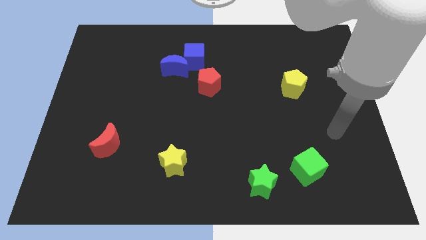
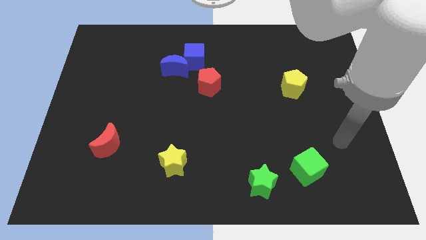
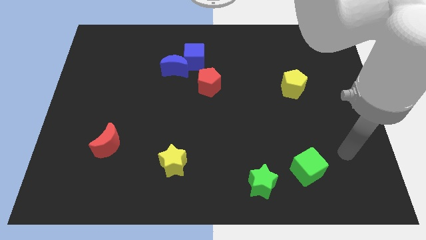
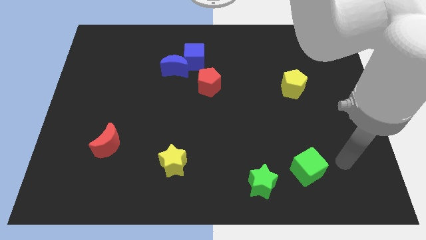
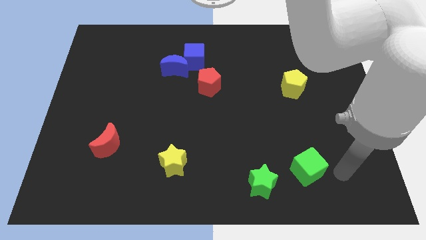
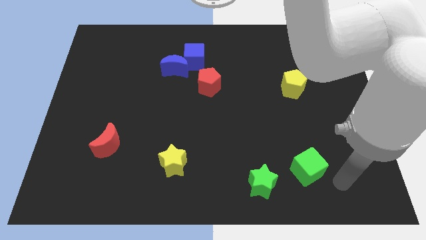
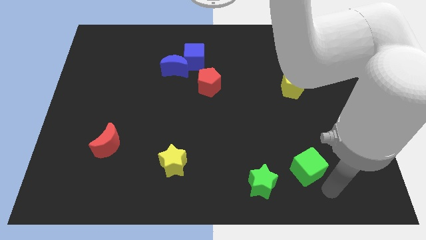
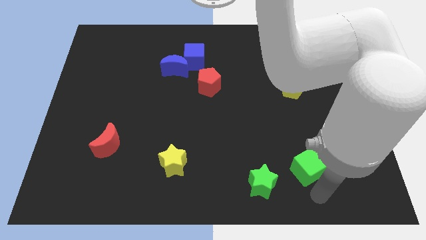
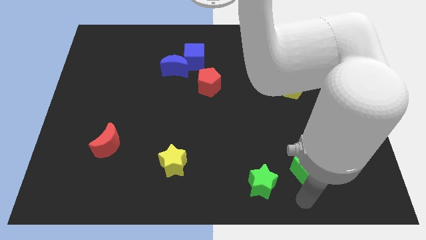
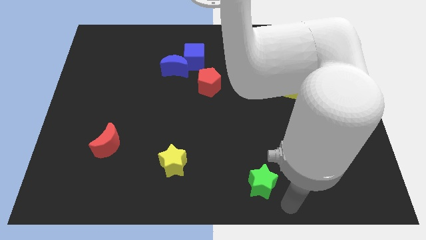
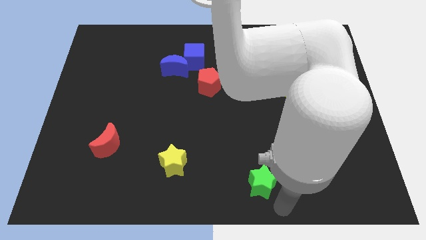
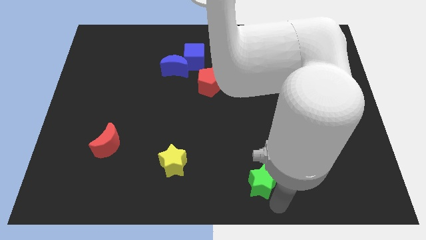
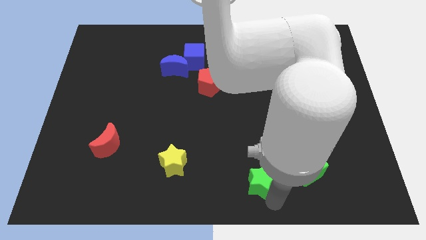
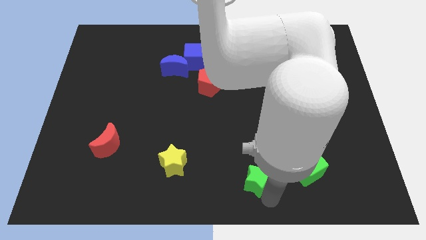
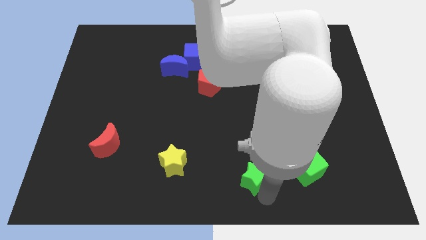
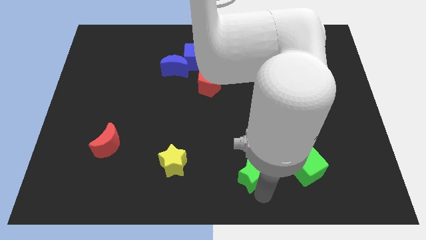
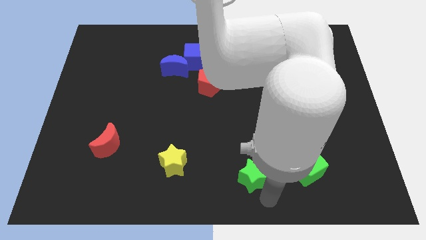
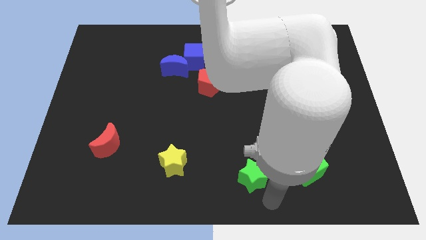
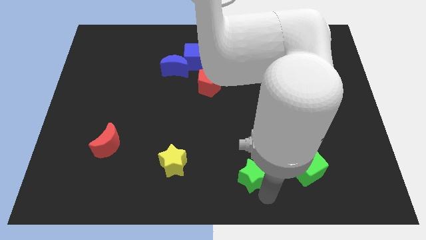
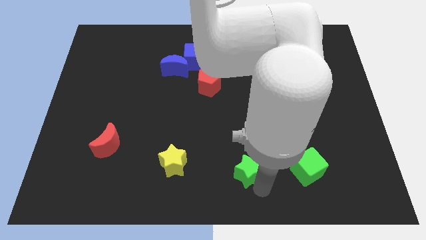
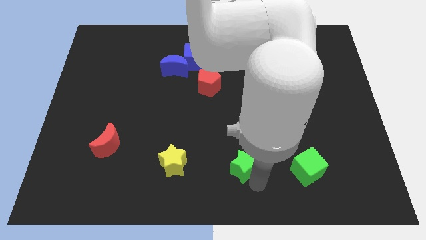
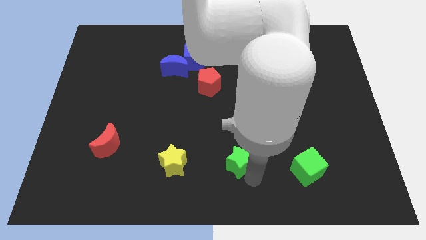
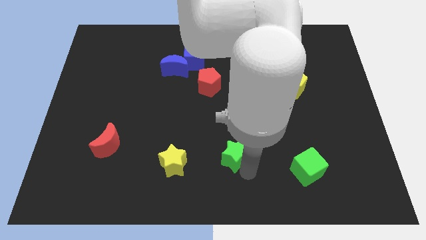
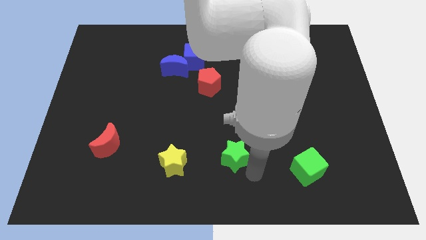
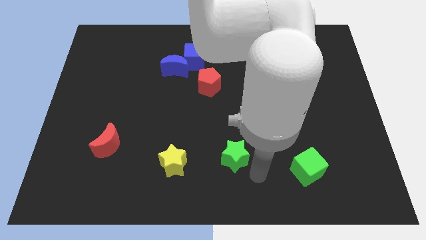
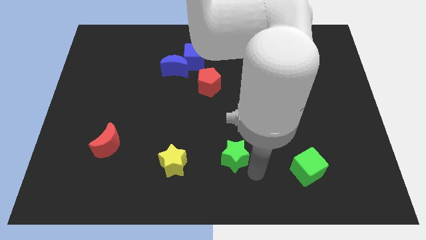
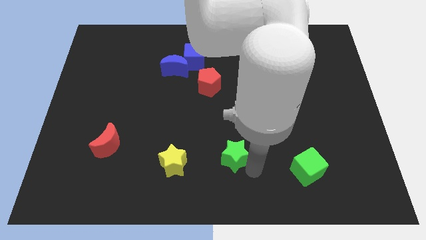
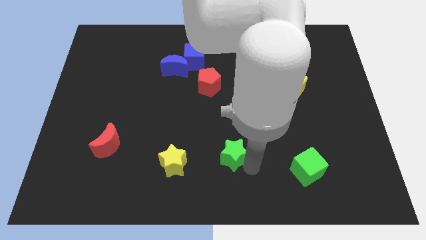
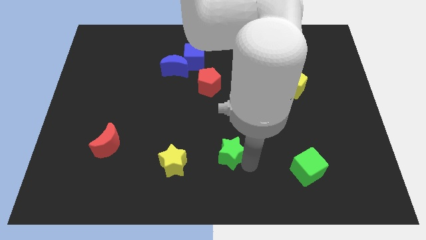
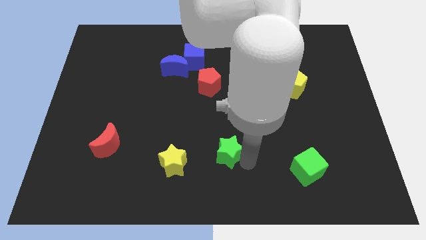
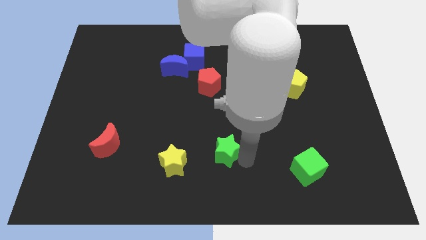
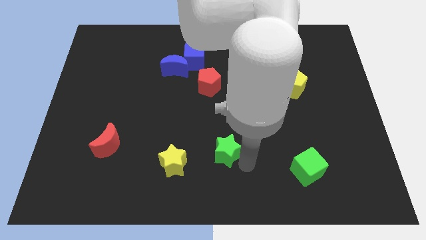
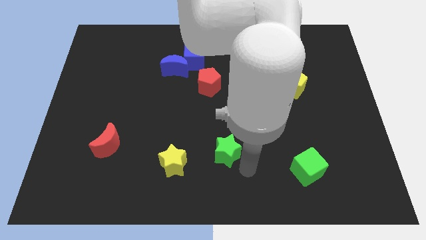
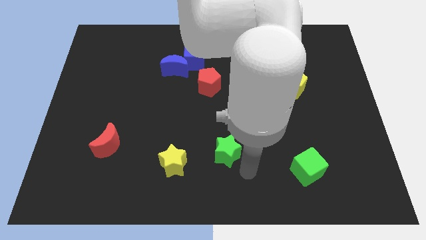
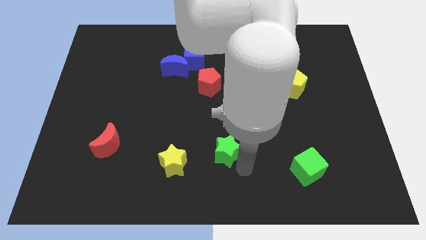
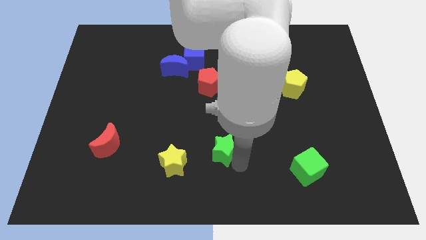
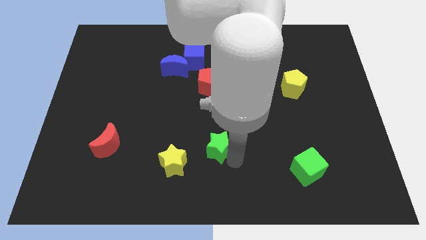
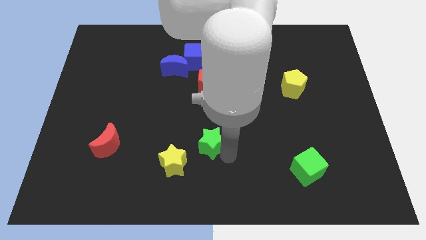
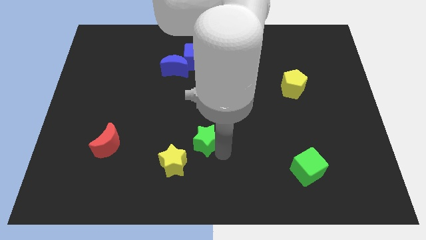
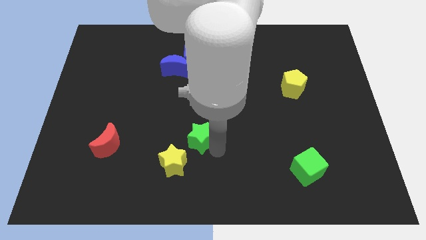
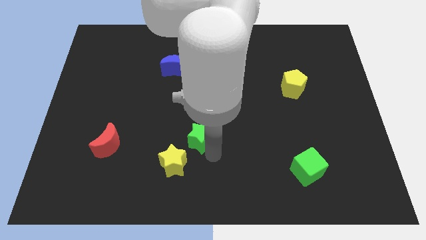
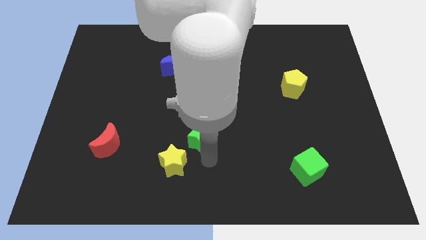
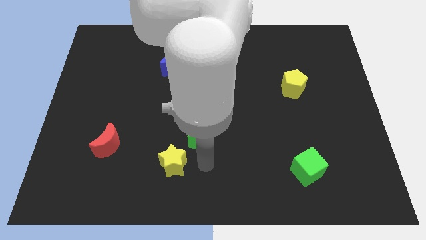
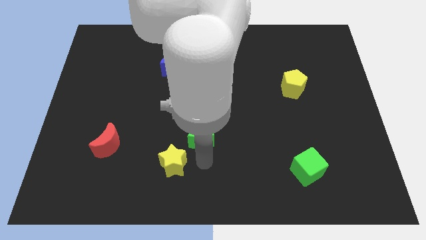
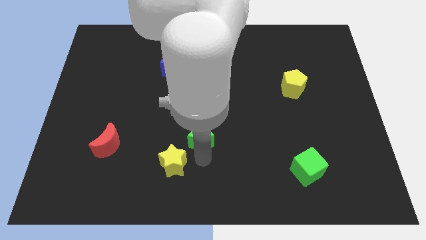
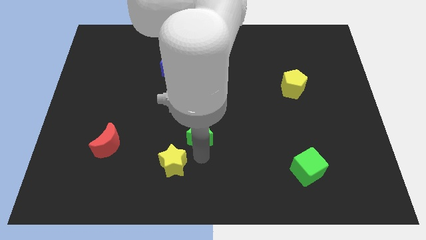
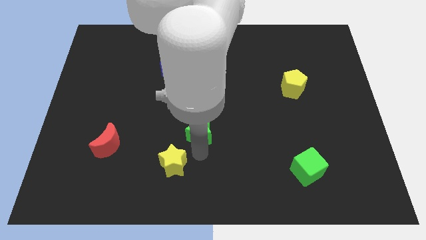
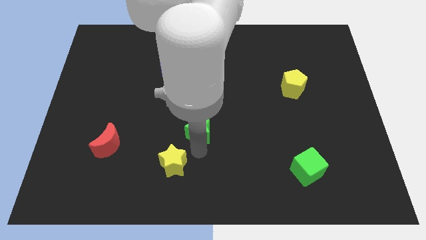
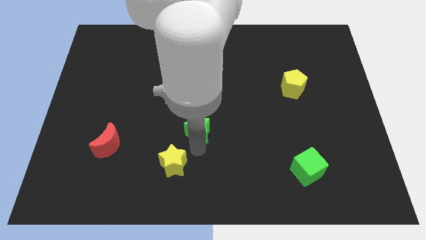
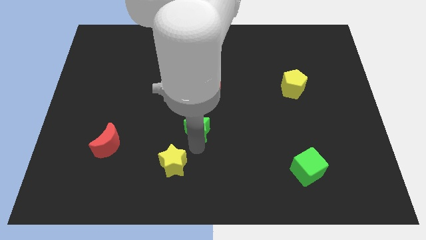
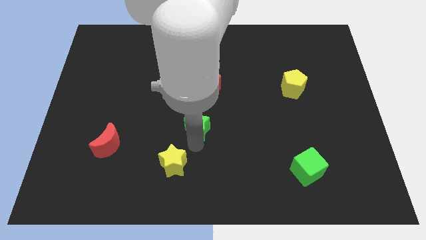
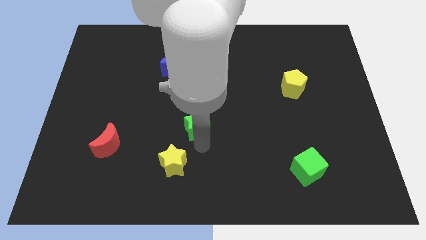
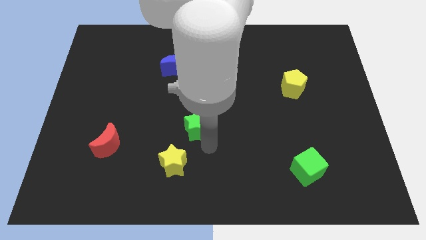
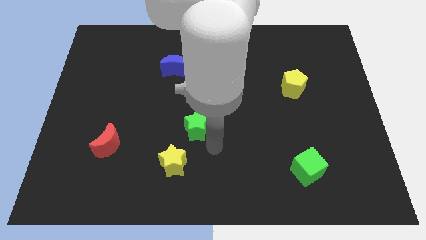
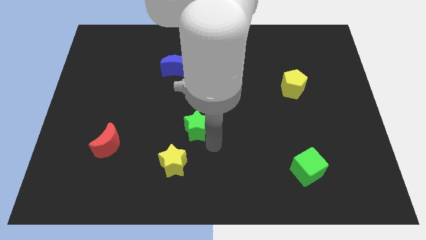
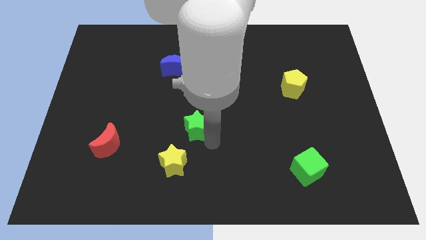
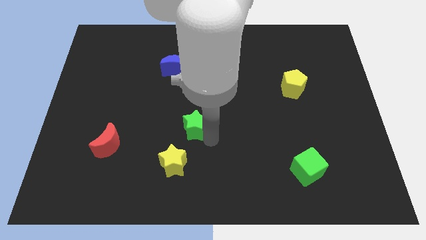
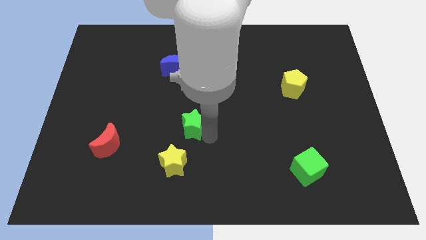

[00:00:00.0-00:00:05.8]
push the green star upwards and to the left diagonally

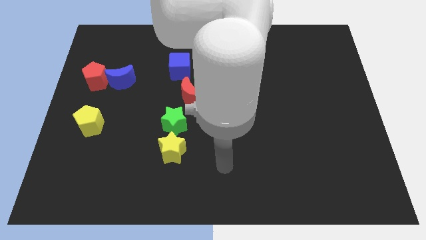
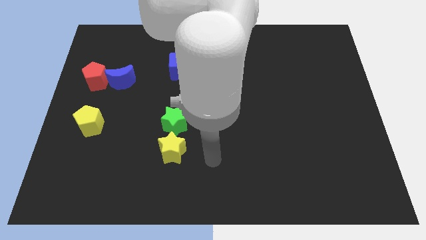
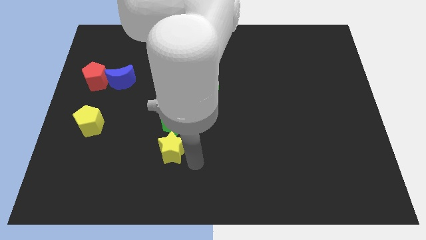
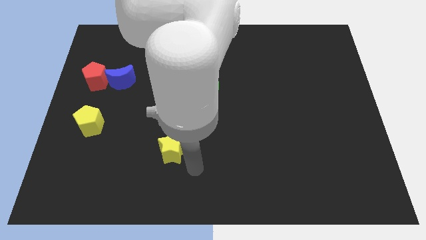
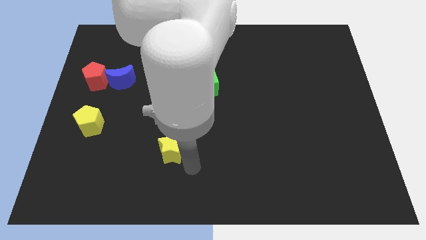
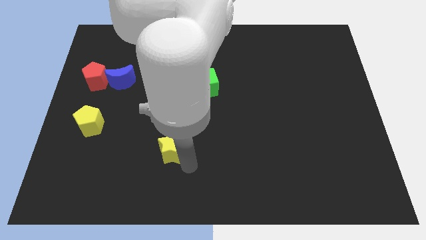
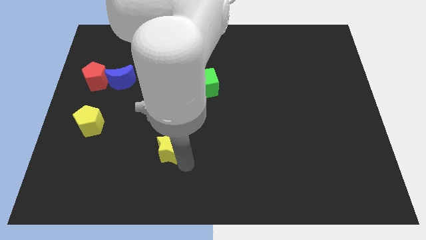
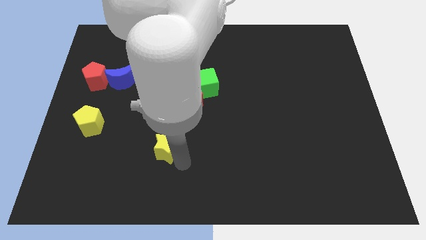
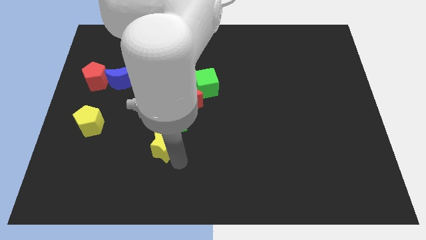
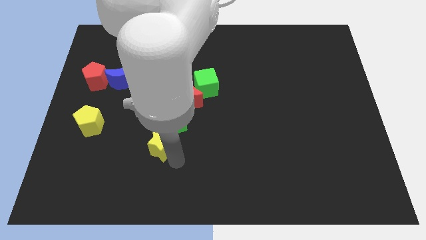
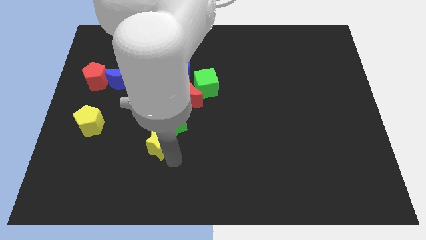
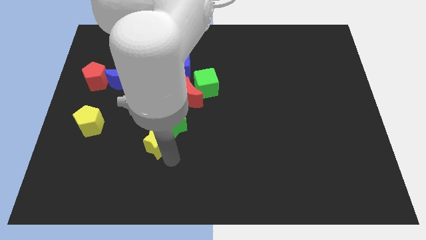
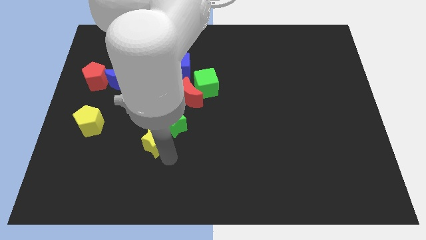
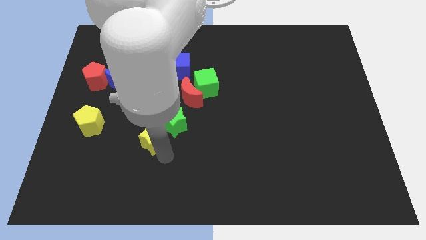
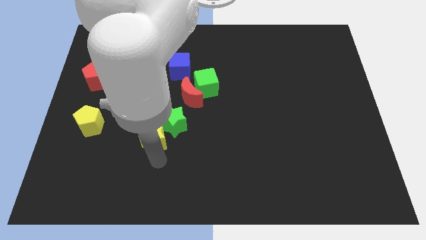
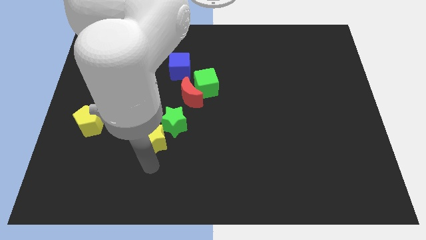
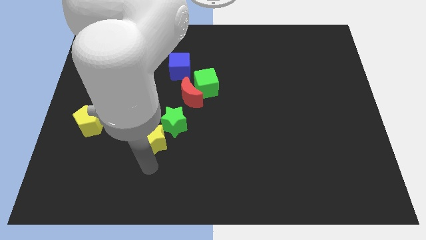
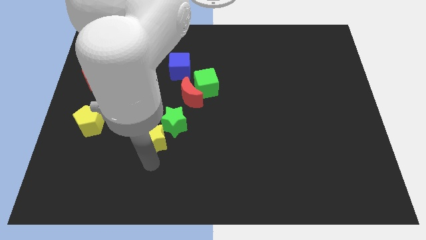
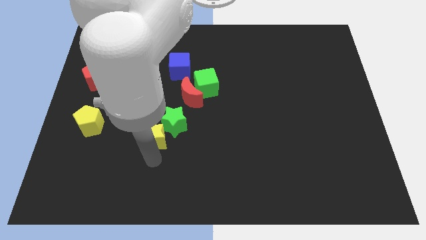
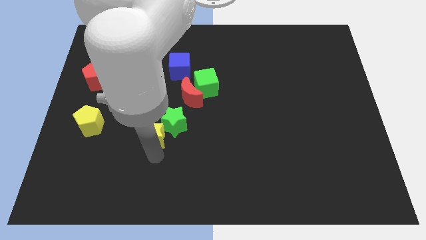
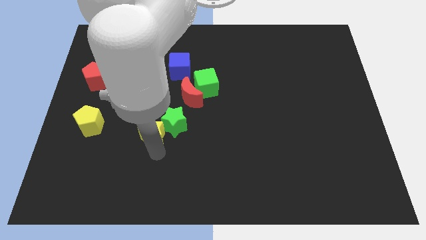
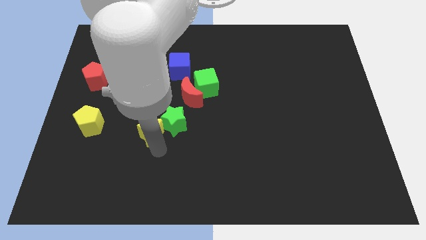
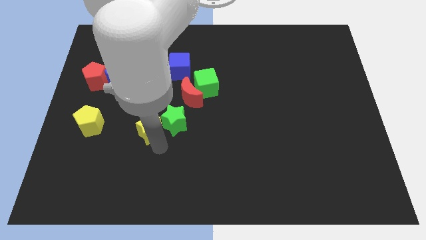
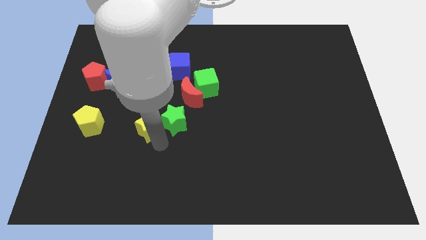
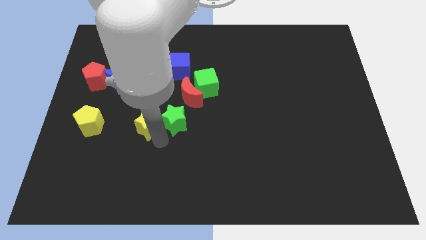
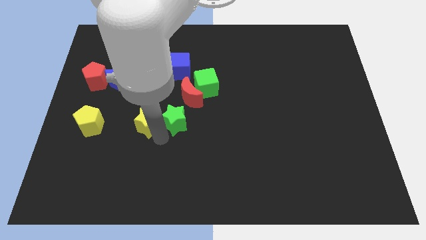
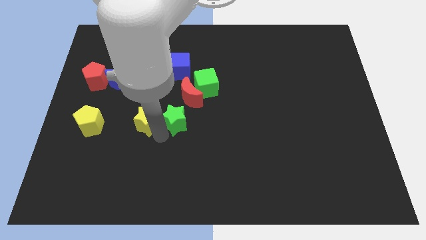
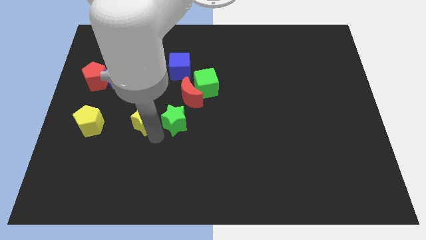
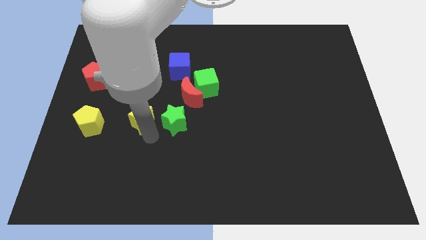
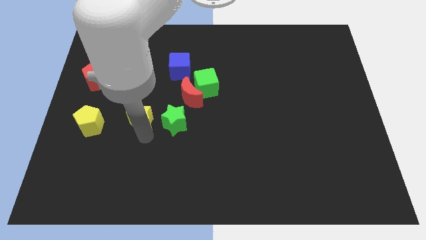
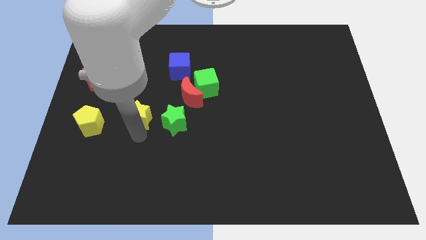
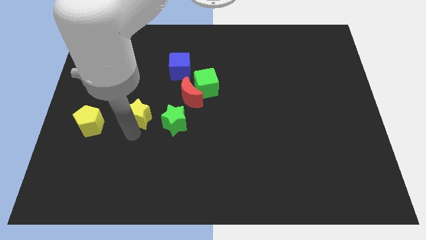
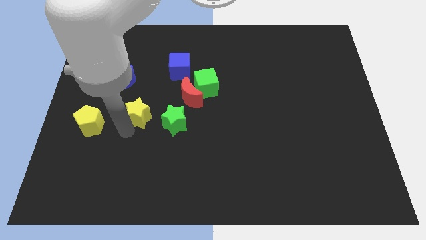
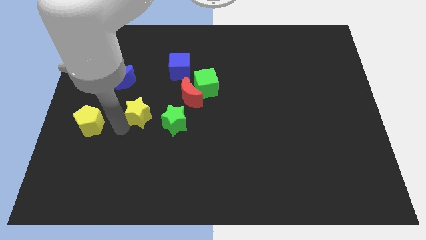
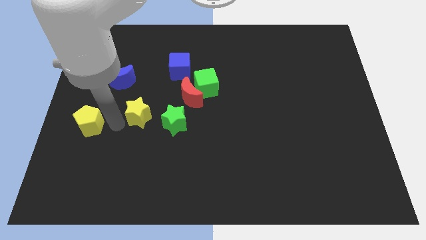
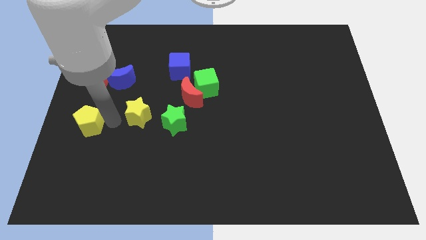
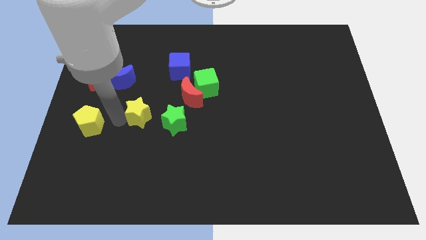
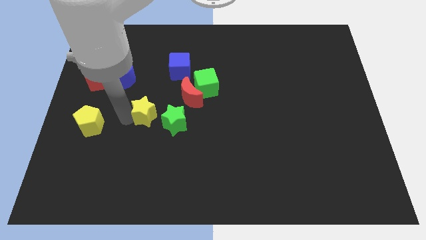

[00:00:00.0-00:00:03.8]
push the yellow star a little upwards
